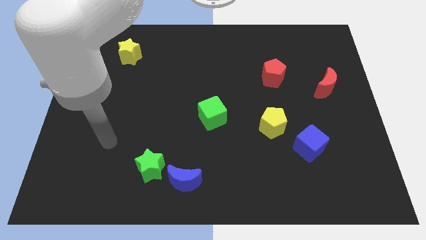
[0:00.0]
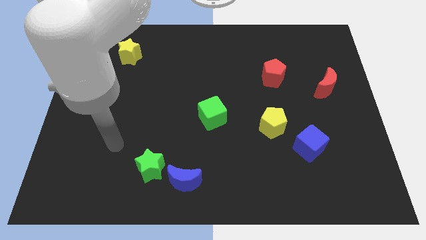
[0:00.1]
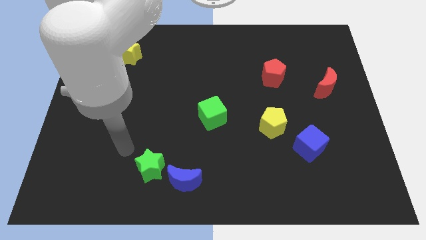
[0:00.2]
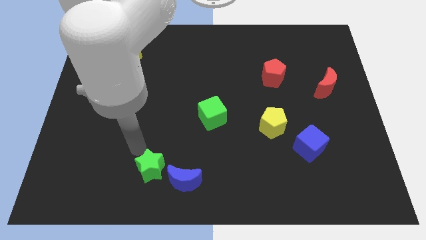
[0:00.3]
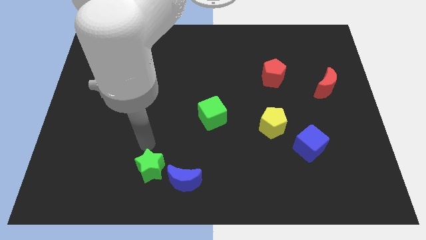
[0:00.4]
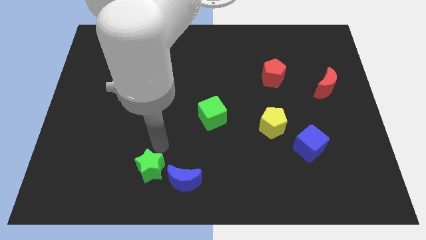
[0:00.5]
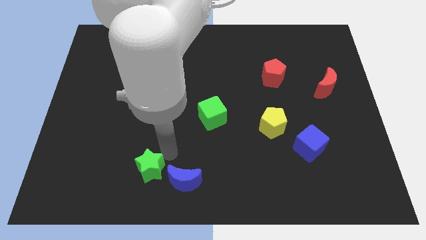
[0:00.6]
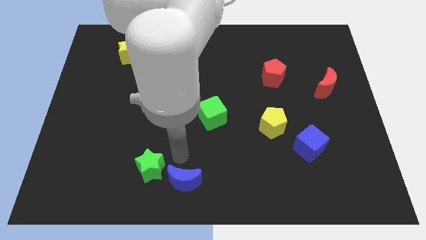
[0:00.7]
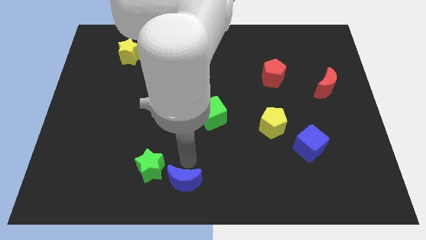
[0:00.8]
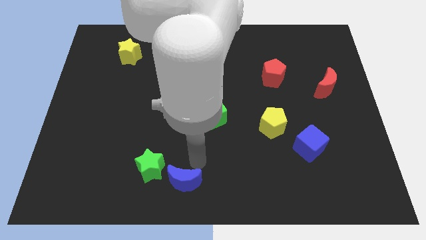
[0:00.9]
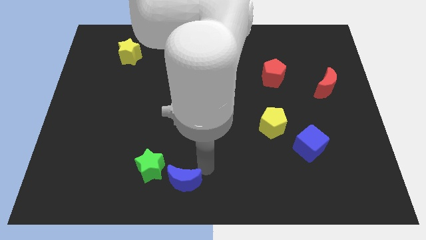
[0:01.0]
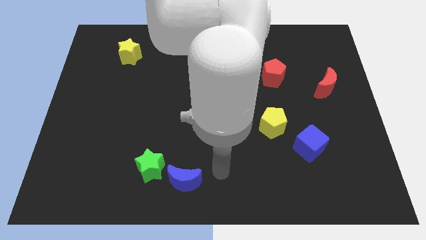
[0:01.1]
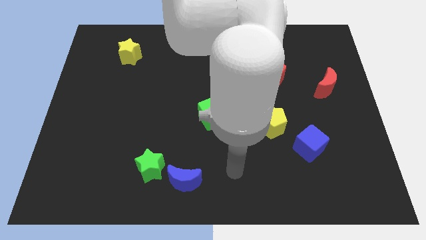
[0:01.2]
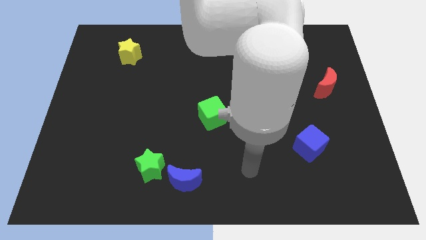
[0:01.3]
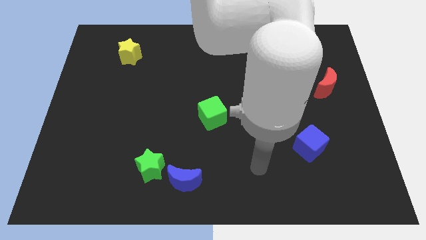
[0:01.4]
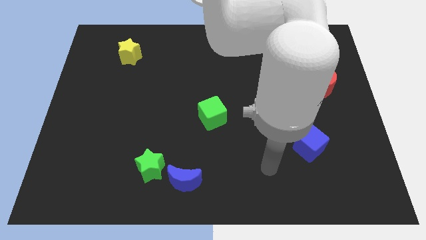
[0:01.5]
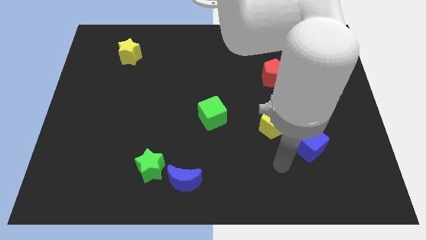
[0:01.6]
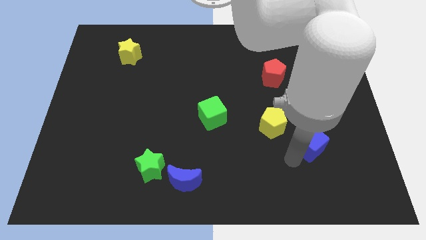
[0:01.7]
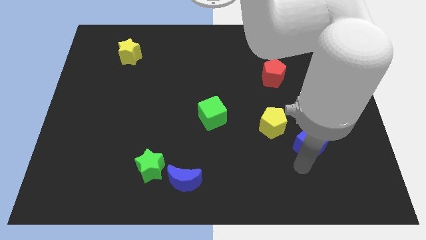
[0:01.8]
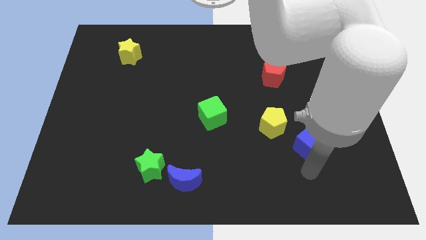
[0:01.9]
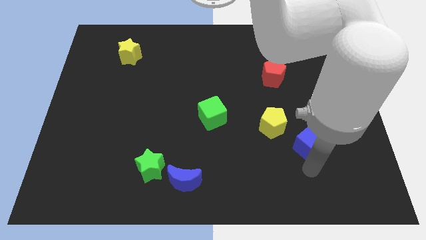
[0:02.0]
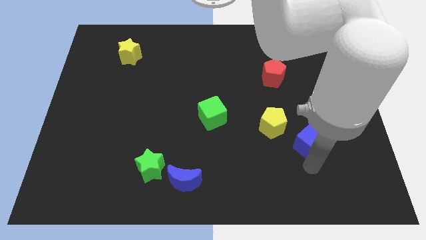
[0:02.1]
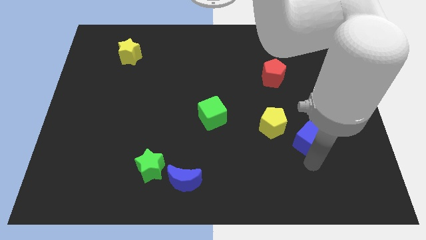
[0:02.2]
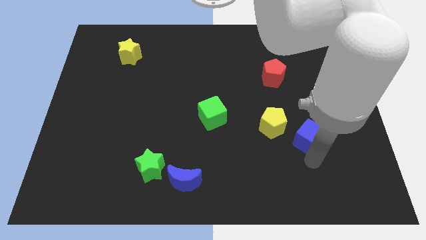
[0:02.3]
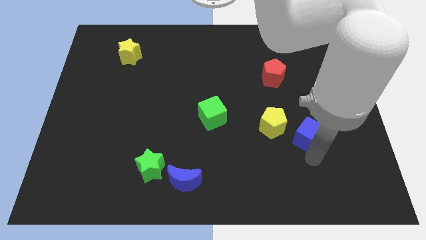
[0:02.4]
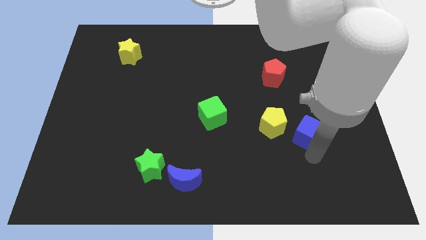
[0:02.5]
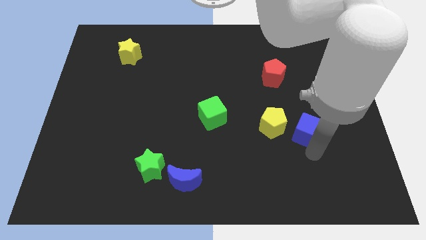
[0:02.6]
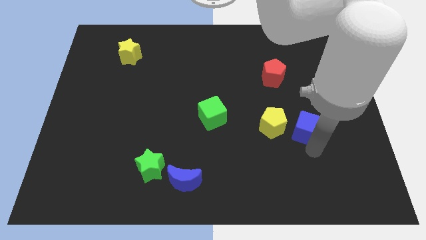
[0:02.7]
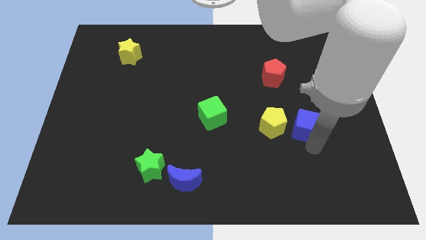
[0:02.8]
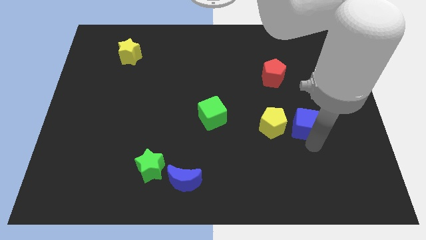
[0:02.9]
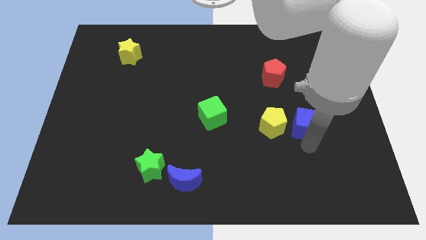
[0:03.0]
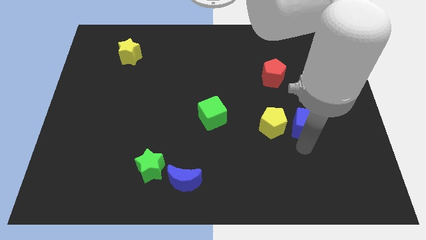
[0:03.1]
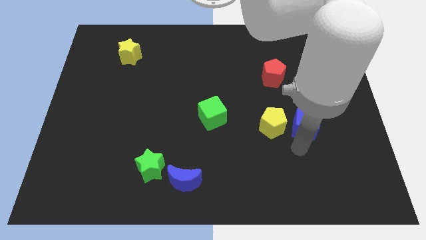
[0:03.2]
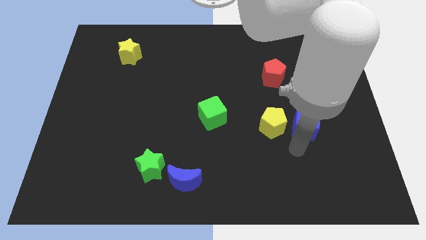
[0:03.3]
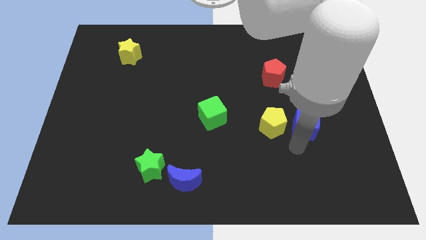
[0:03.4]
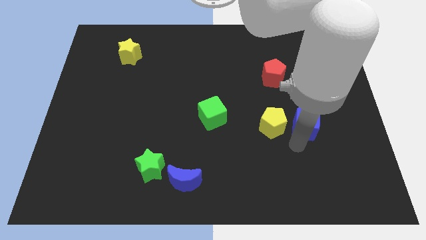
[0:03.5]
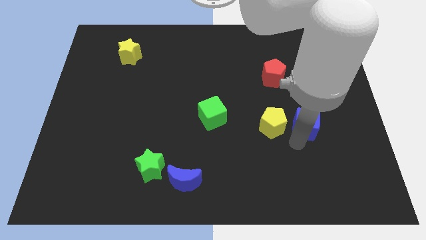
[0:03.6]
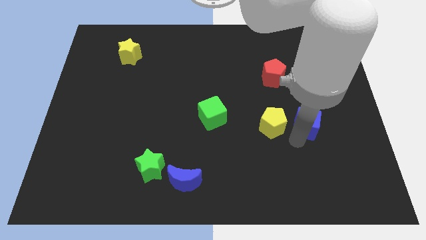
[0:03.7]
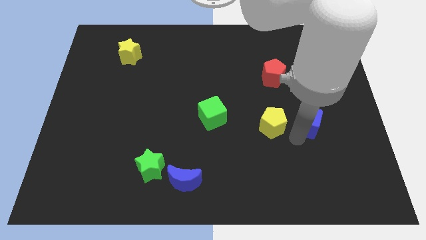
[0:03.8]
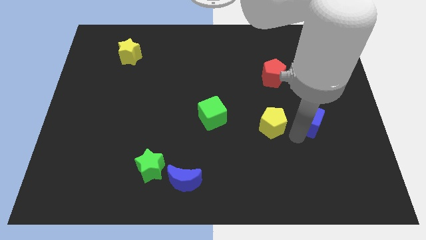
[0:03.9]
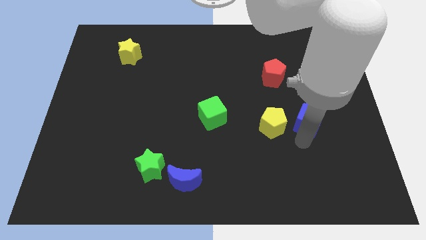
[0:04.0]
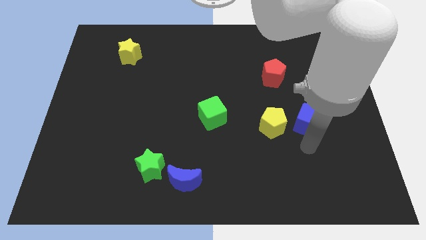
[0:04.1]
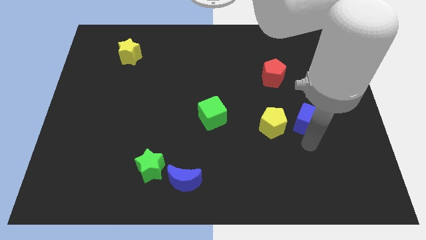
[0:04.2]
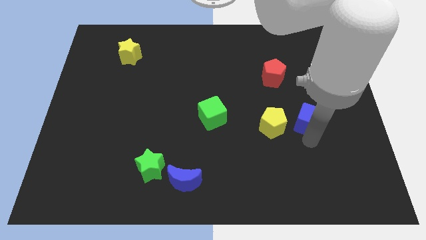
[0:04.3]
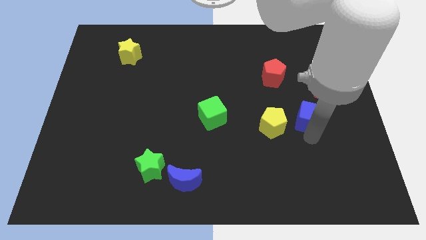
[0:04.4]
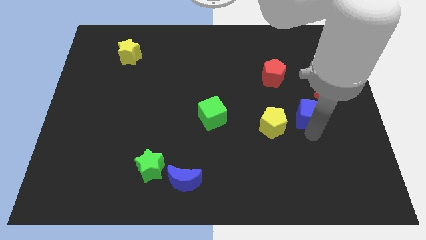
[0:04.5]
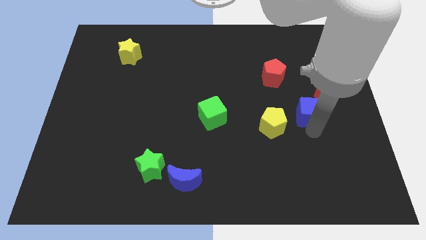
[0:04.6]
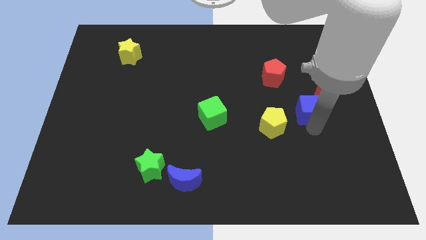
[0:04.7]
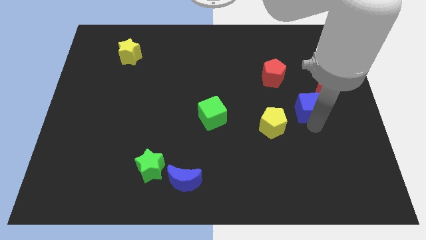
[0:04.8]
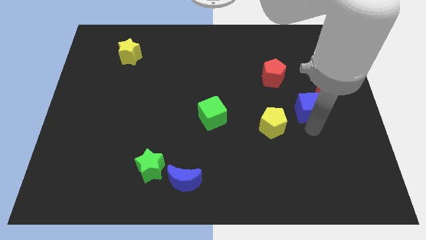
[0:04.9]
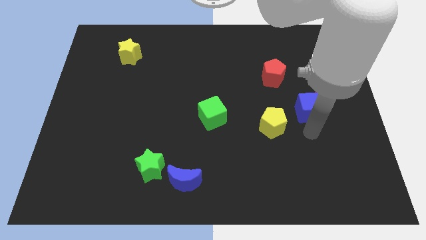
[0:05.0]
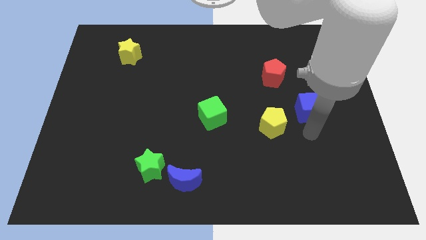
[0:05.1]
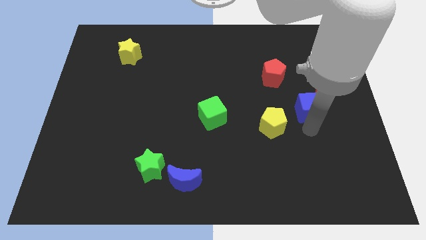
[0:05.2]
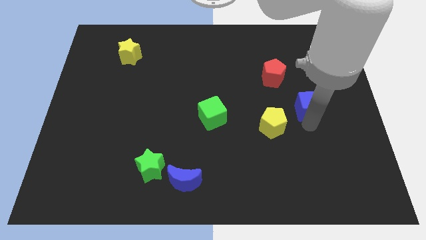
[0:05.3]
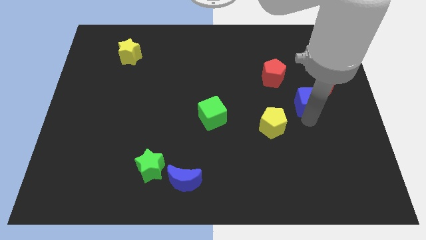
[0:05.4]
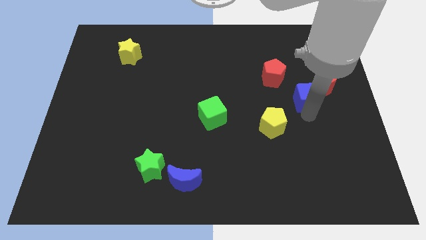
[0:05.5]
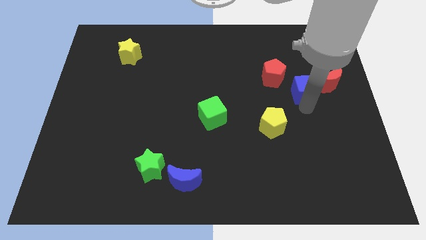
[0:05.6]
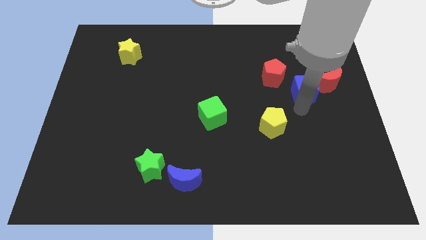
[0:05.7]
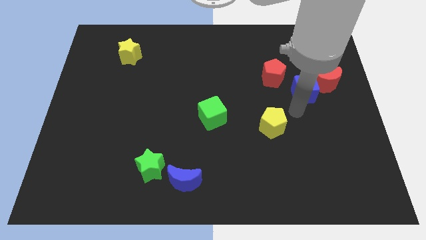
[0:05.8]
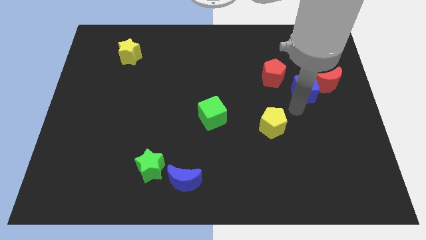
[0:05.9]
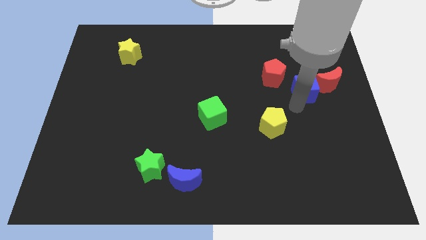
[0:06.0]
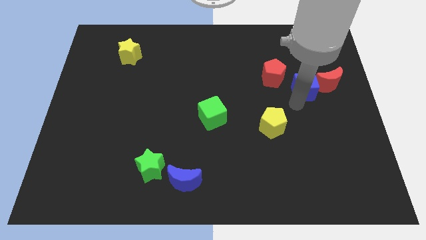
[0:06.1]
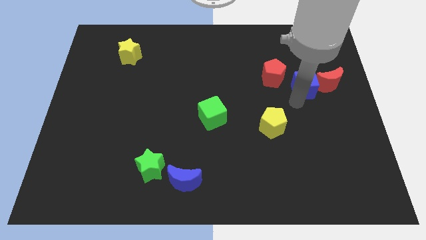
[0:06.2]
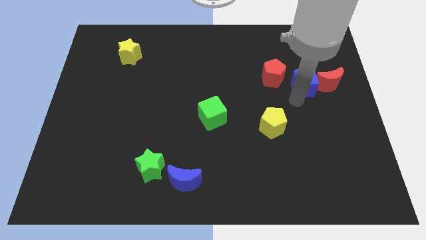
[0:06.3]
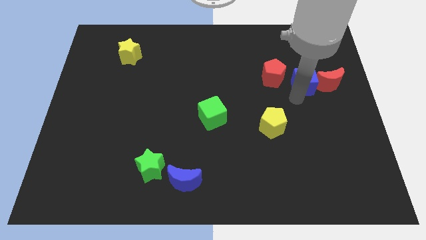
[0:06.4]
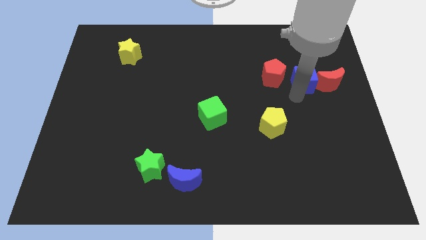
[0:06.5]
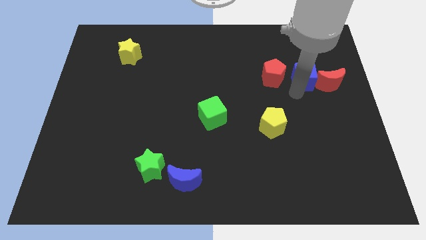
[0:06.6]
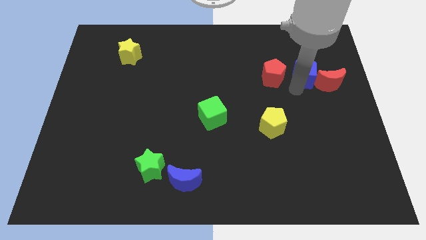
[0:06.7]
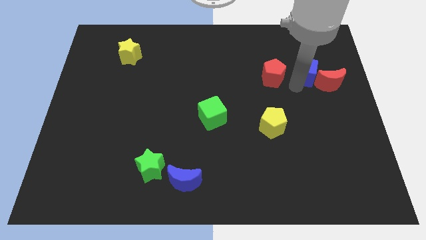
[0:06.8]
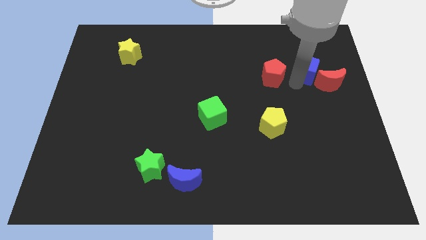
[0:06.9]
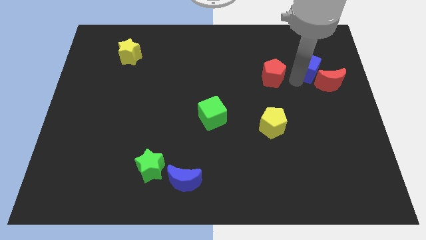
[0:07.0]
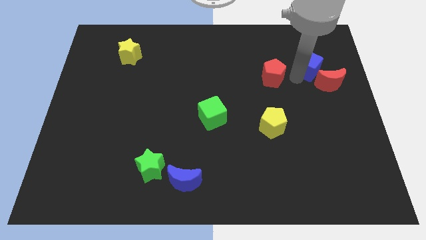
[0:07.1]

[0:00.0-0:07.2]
push the blue cube to the top of the red moon
